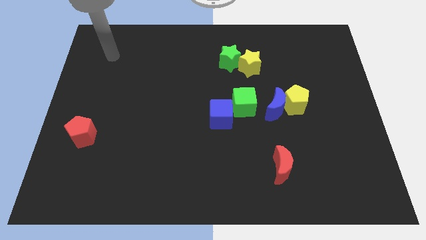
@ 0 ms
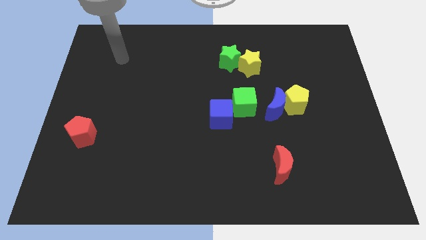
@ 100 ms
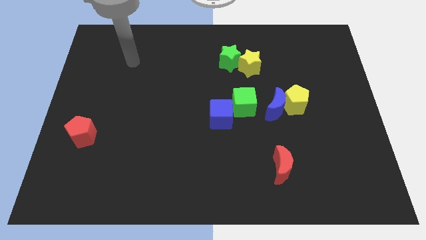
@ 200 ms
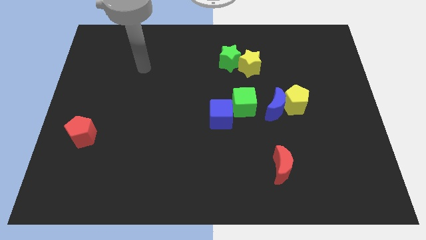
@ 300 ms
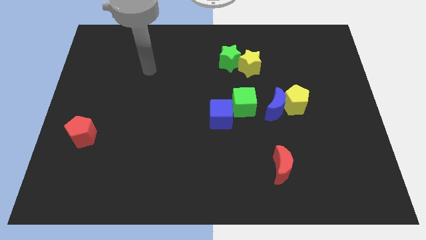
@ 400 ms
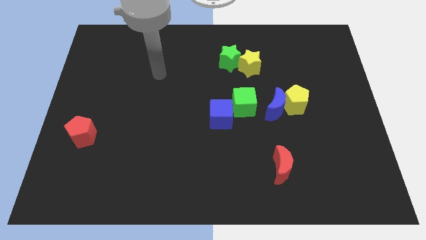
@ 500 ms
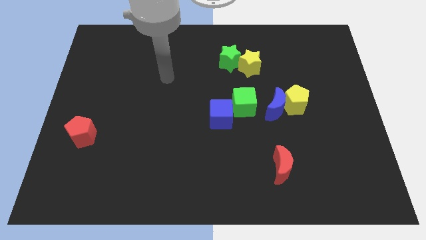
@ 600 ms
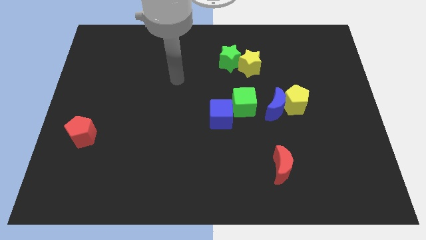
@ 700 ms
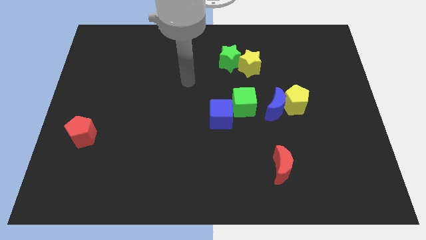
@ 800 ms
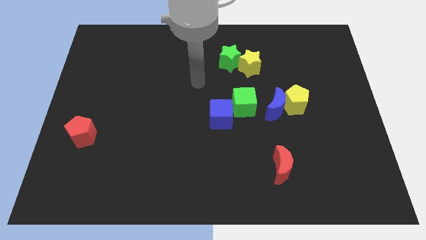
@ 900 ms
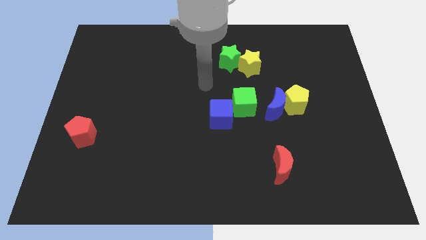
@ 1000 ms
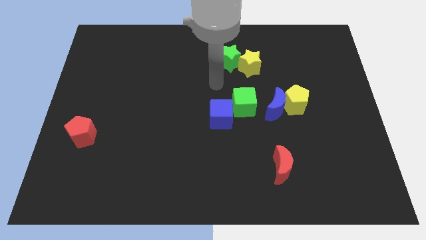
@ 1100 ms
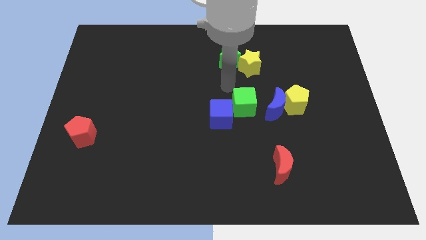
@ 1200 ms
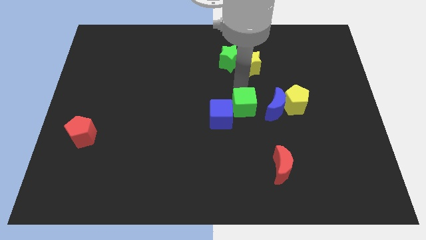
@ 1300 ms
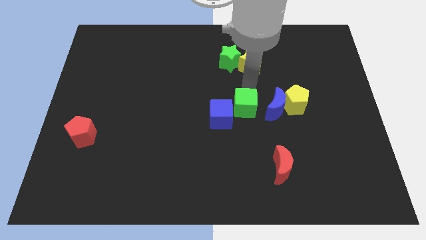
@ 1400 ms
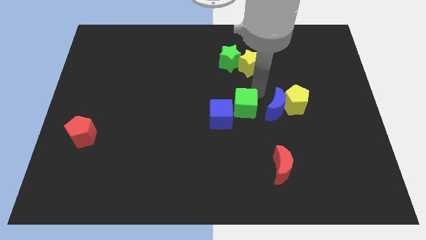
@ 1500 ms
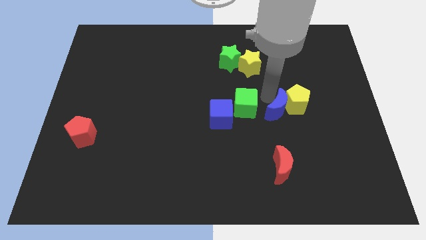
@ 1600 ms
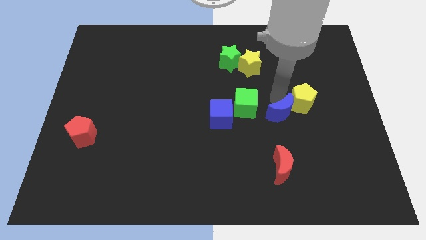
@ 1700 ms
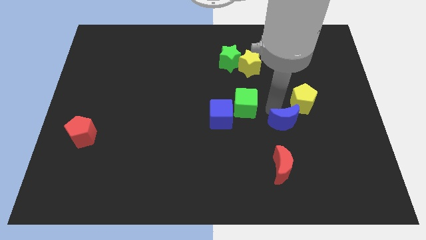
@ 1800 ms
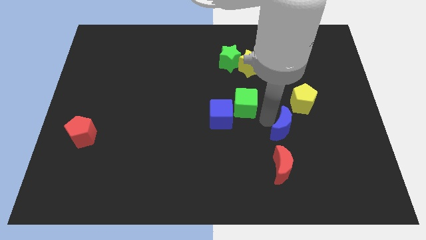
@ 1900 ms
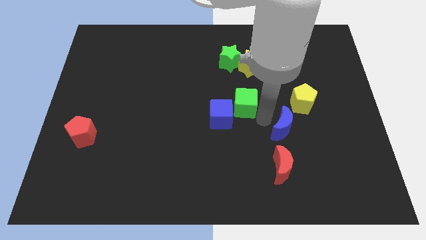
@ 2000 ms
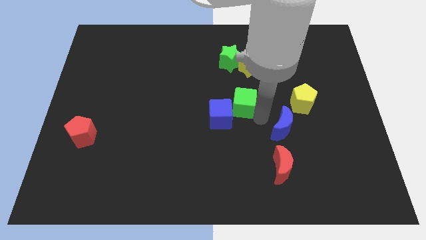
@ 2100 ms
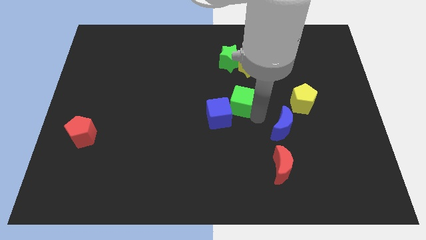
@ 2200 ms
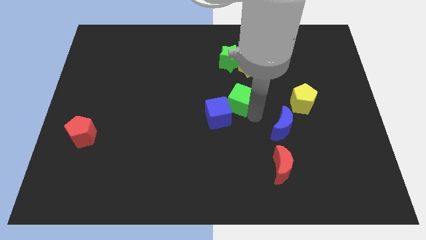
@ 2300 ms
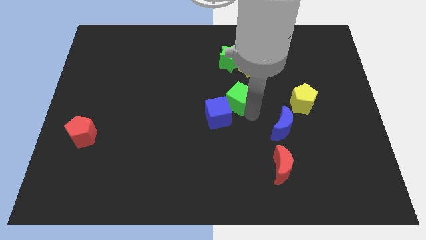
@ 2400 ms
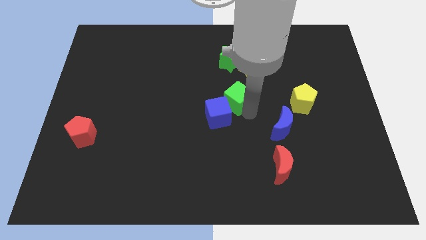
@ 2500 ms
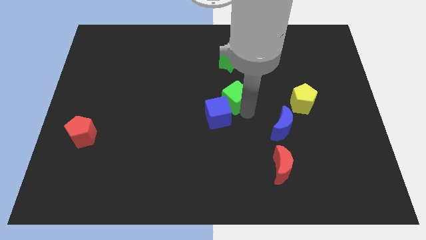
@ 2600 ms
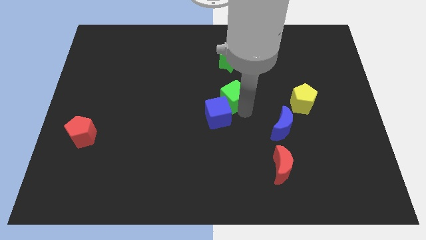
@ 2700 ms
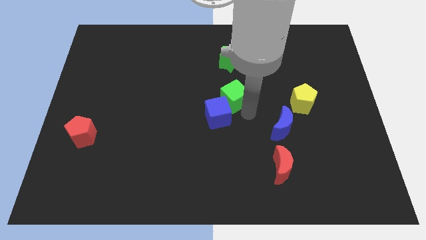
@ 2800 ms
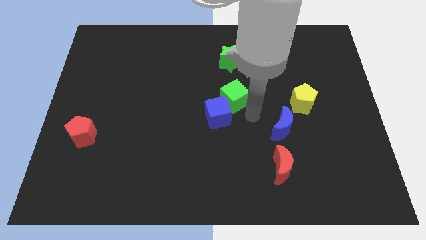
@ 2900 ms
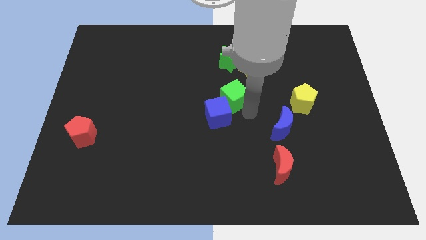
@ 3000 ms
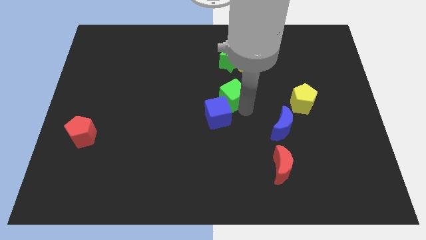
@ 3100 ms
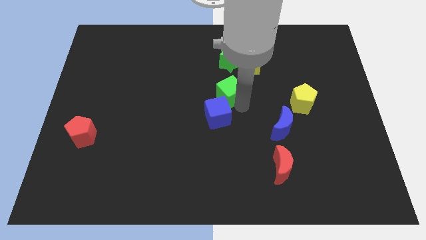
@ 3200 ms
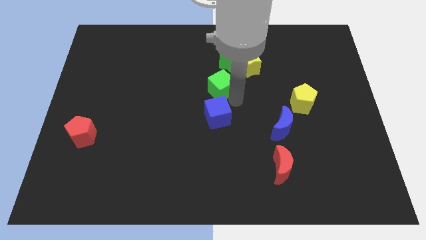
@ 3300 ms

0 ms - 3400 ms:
move the green cube a bit up and to the left

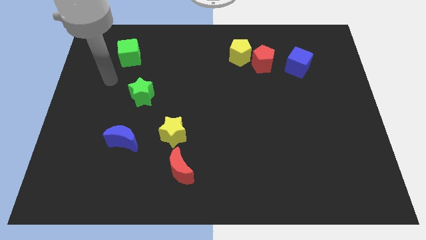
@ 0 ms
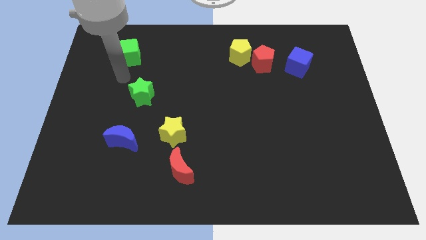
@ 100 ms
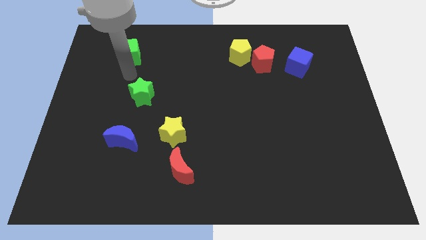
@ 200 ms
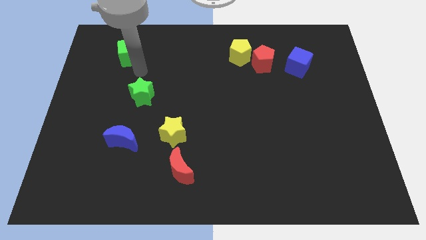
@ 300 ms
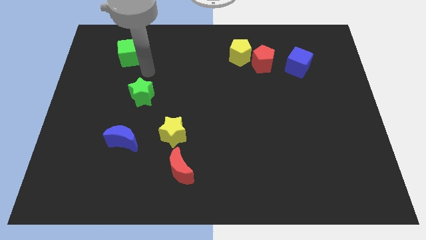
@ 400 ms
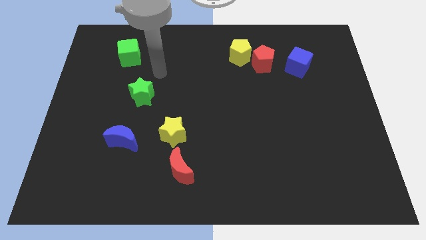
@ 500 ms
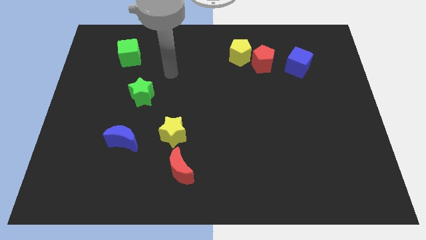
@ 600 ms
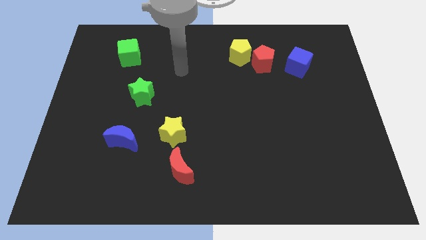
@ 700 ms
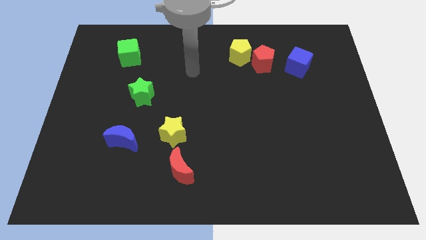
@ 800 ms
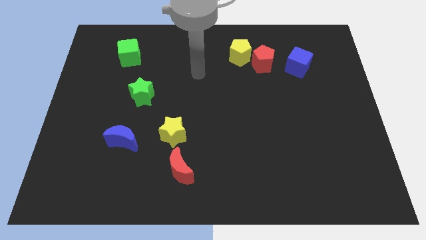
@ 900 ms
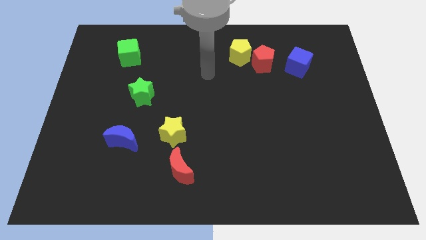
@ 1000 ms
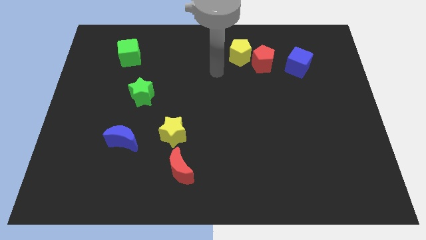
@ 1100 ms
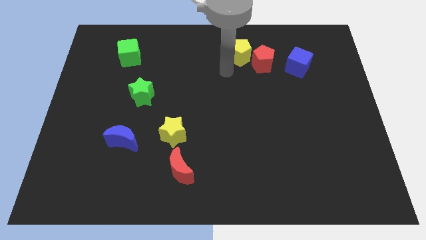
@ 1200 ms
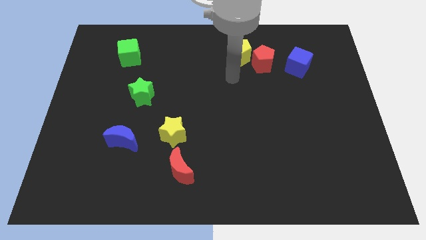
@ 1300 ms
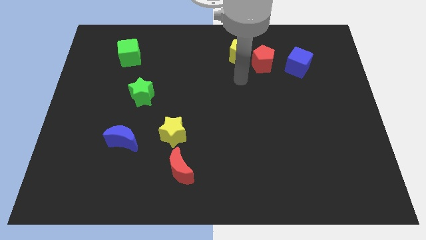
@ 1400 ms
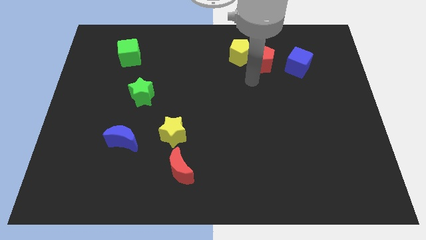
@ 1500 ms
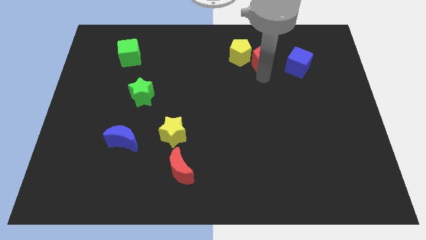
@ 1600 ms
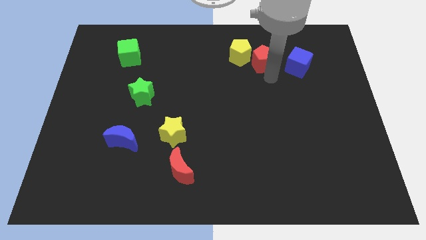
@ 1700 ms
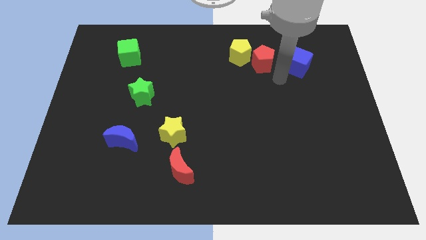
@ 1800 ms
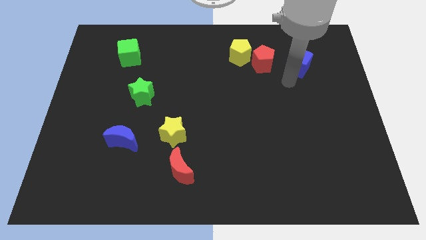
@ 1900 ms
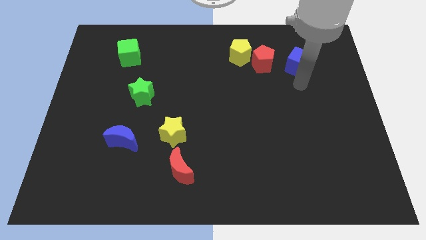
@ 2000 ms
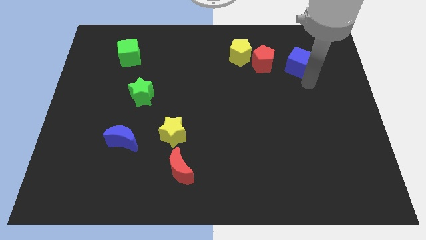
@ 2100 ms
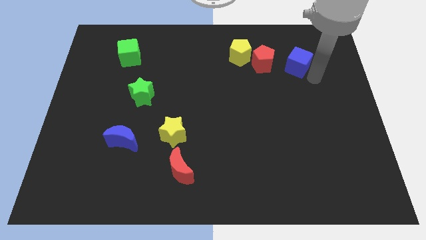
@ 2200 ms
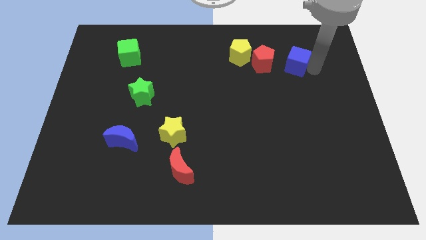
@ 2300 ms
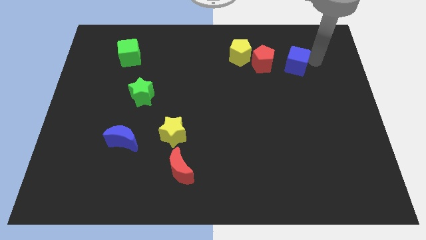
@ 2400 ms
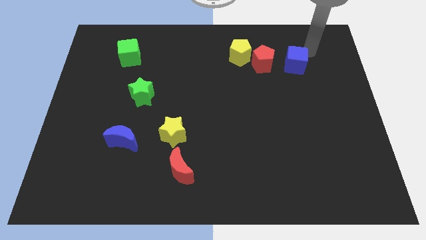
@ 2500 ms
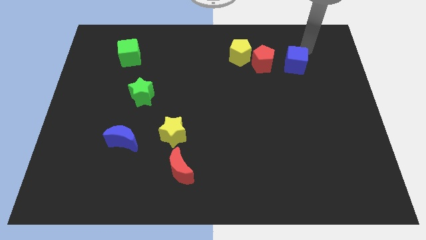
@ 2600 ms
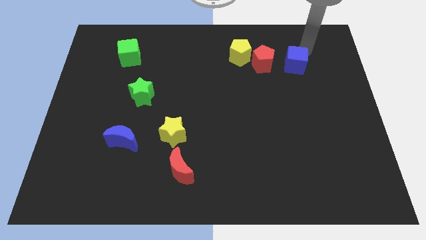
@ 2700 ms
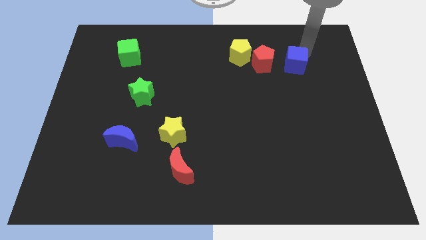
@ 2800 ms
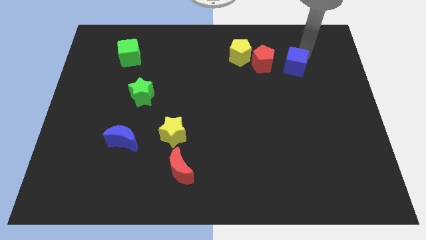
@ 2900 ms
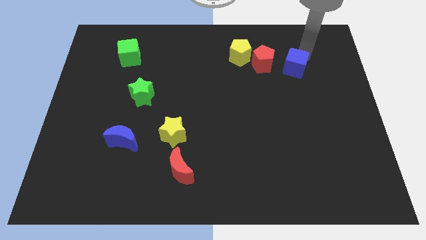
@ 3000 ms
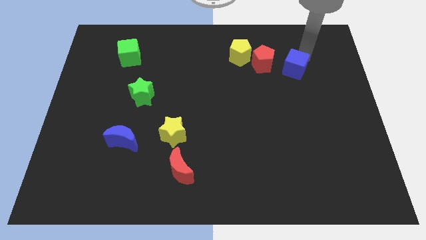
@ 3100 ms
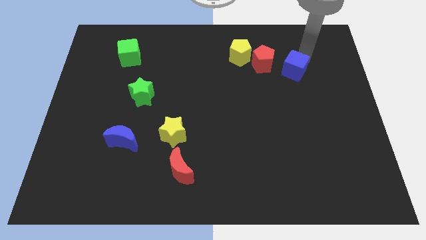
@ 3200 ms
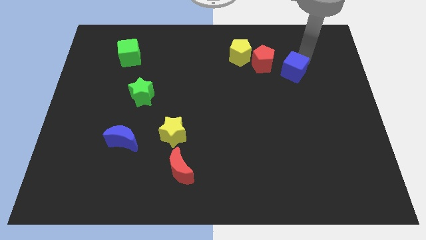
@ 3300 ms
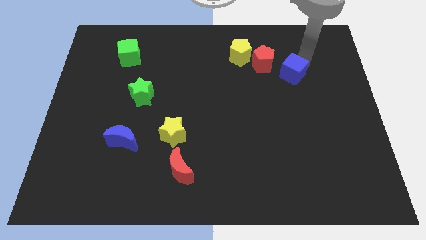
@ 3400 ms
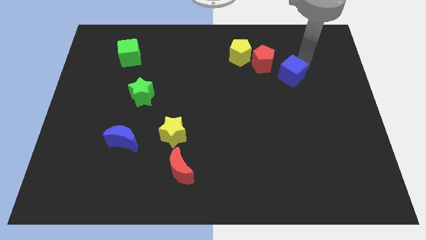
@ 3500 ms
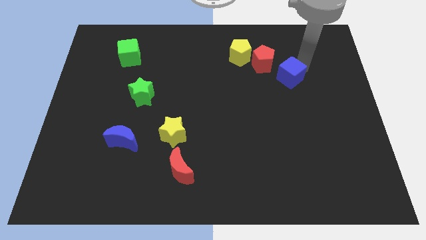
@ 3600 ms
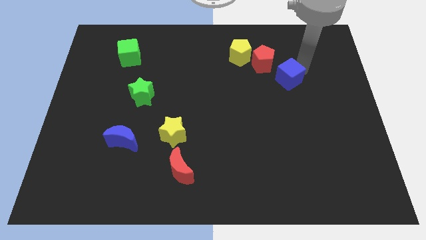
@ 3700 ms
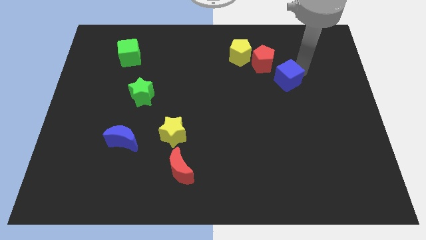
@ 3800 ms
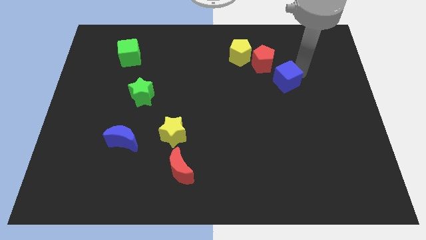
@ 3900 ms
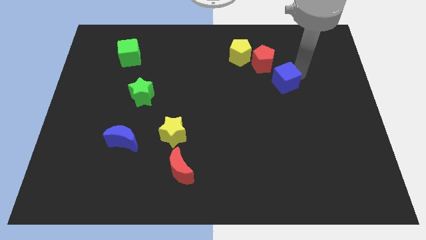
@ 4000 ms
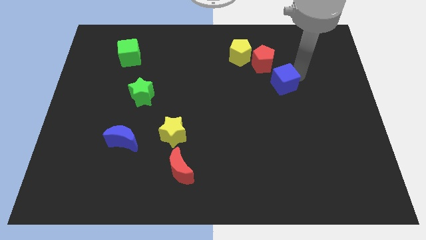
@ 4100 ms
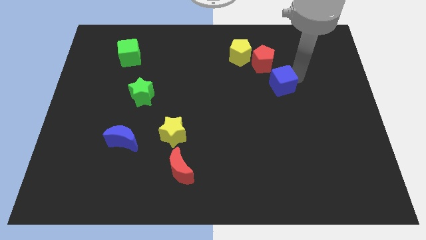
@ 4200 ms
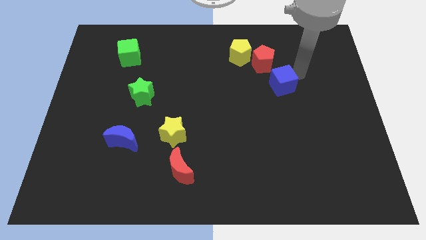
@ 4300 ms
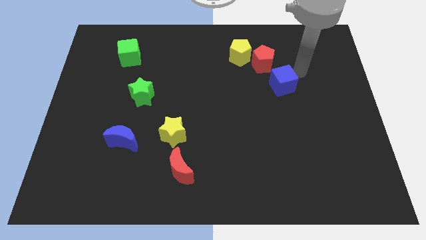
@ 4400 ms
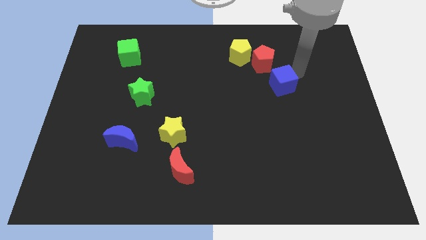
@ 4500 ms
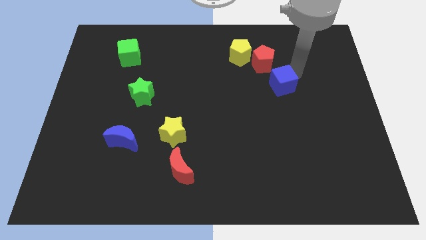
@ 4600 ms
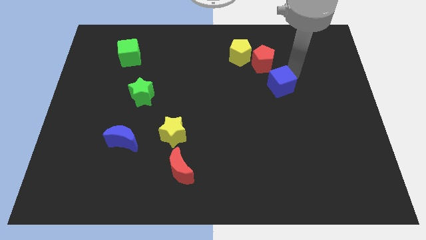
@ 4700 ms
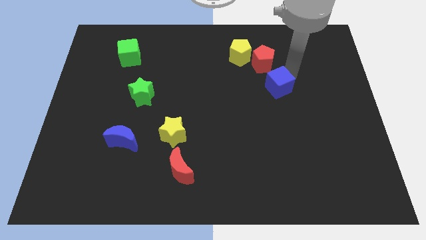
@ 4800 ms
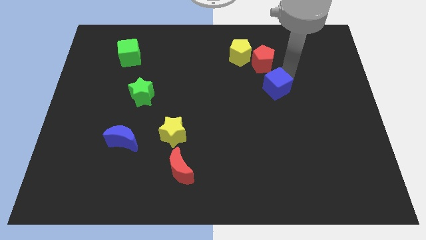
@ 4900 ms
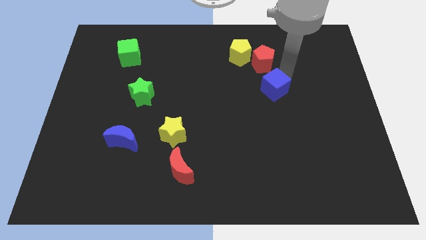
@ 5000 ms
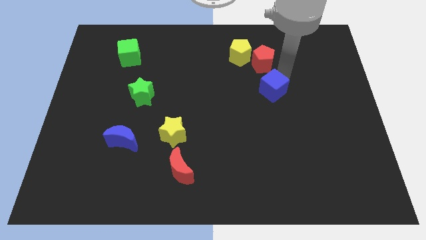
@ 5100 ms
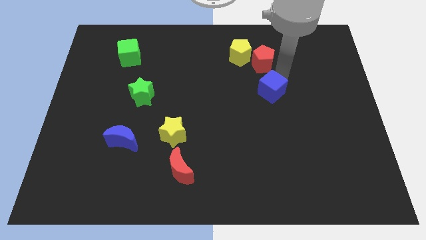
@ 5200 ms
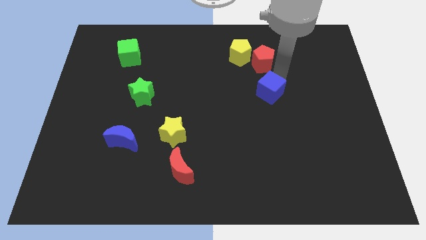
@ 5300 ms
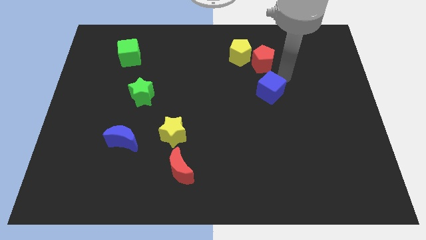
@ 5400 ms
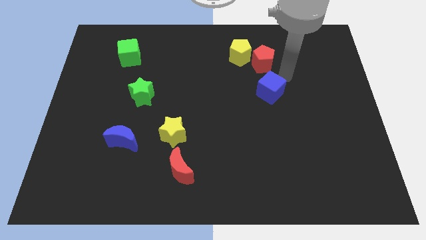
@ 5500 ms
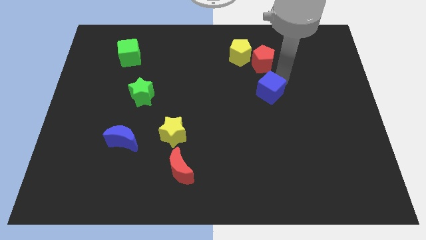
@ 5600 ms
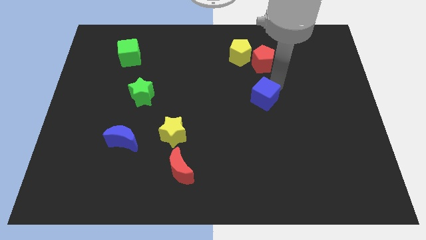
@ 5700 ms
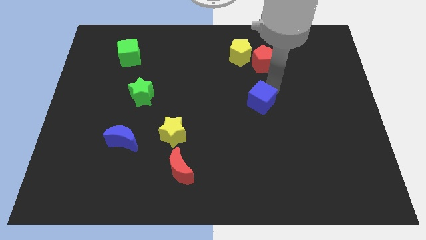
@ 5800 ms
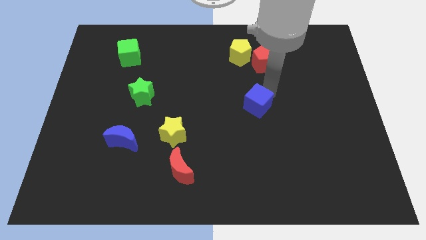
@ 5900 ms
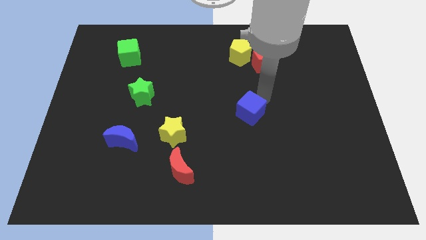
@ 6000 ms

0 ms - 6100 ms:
push the blue cube diagonally downwards and left
